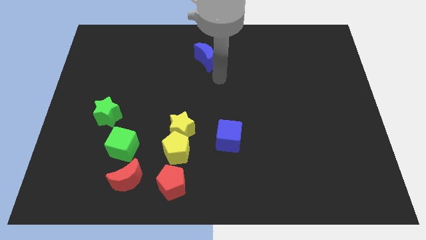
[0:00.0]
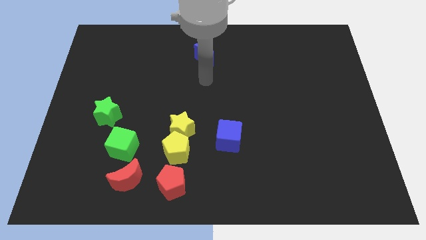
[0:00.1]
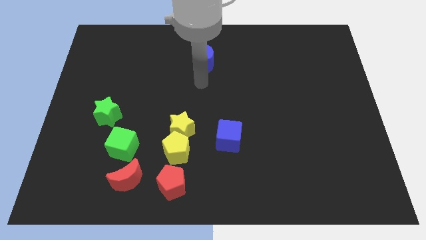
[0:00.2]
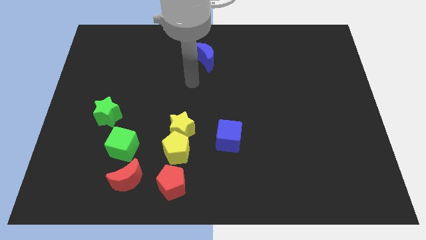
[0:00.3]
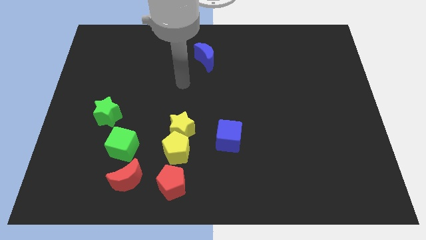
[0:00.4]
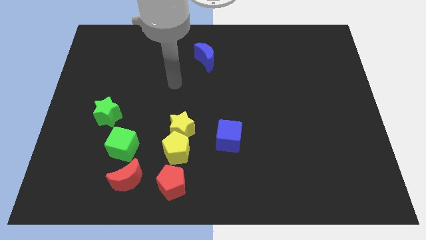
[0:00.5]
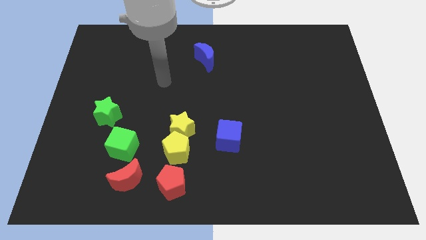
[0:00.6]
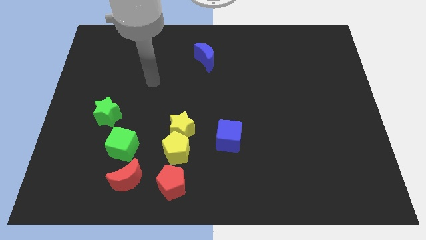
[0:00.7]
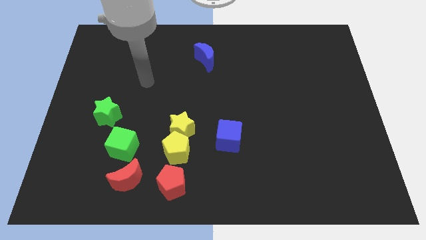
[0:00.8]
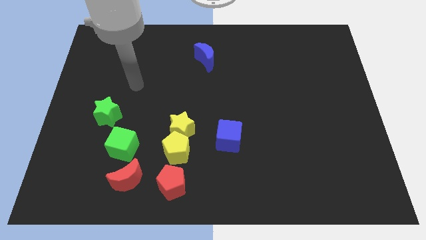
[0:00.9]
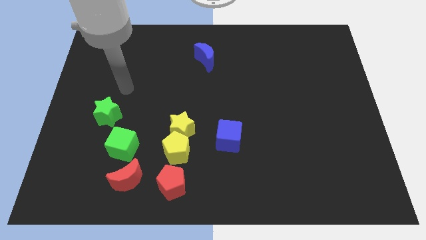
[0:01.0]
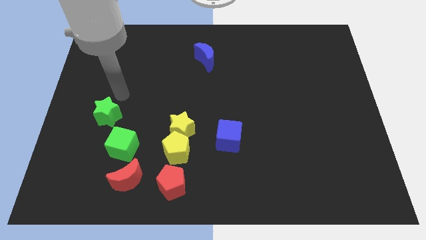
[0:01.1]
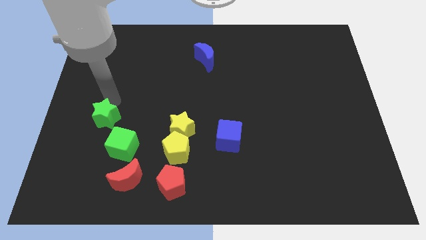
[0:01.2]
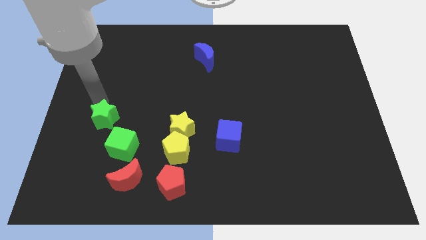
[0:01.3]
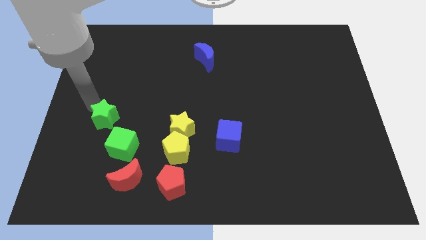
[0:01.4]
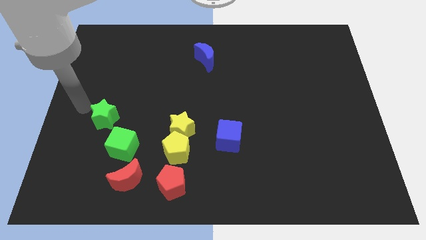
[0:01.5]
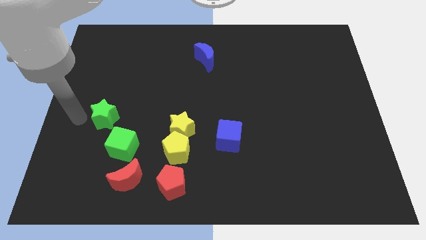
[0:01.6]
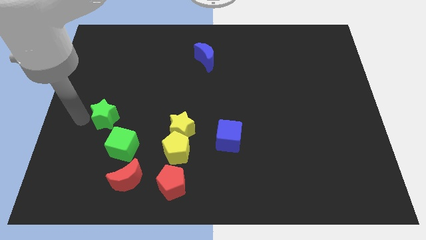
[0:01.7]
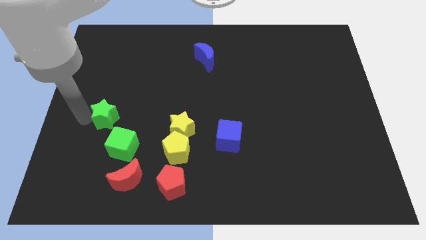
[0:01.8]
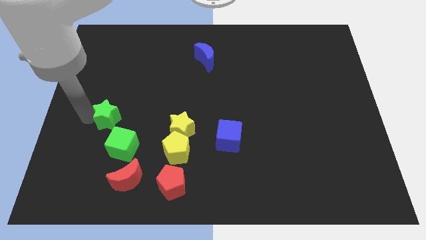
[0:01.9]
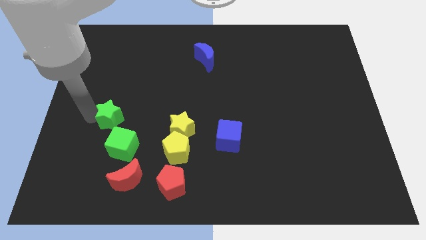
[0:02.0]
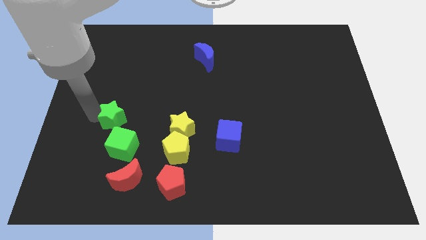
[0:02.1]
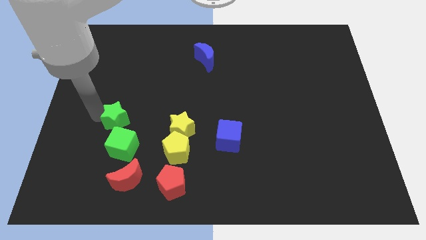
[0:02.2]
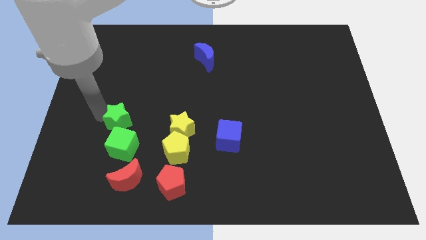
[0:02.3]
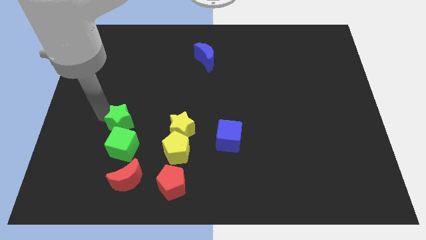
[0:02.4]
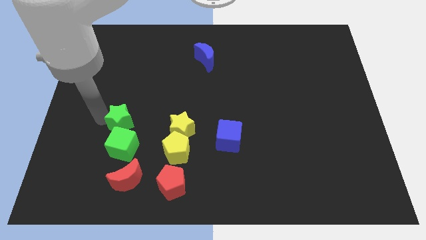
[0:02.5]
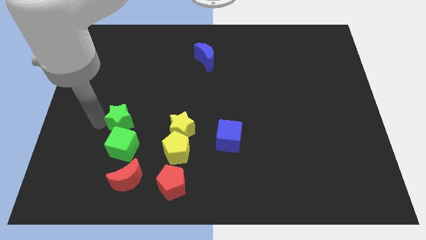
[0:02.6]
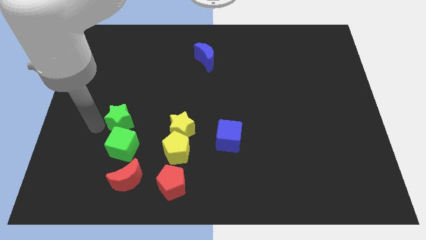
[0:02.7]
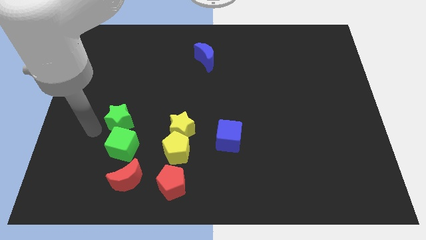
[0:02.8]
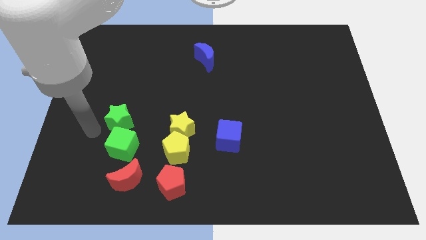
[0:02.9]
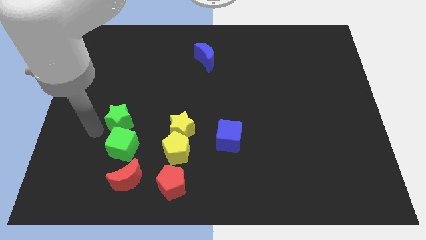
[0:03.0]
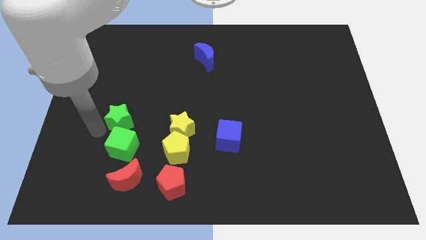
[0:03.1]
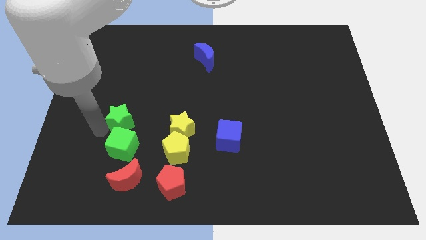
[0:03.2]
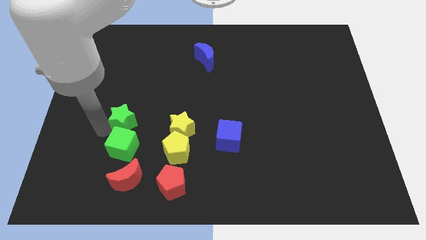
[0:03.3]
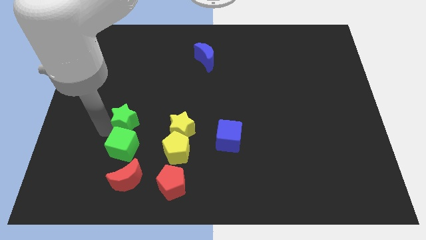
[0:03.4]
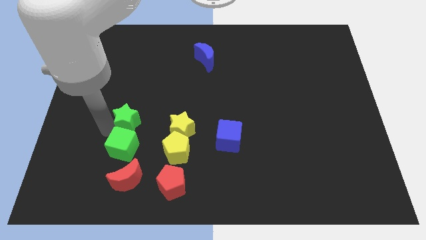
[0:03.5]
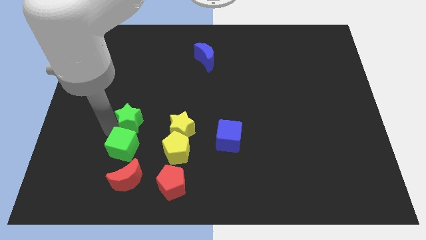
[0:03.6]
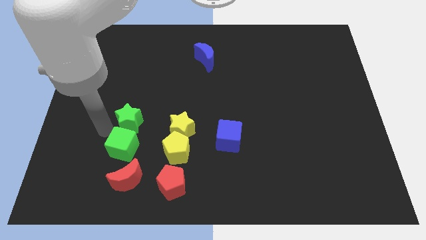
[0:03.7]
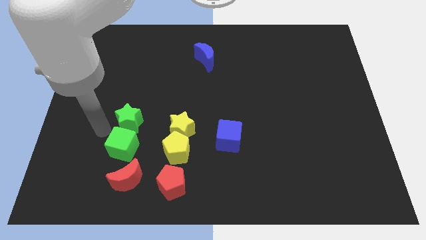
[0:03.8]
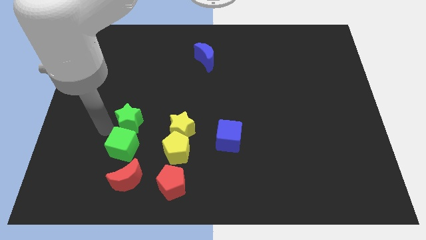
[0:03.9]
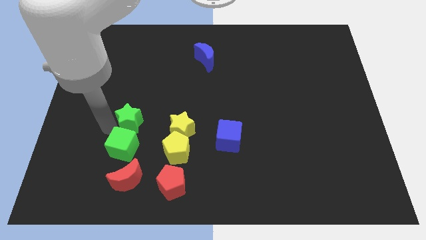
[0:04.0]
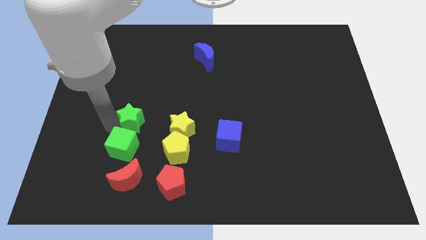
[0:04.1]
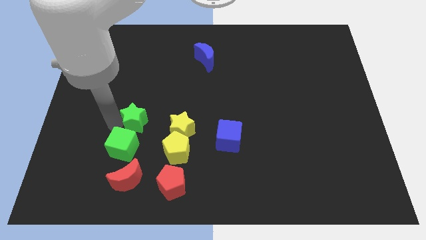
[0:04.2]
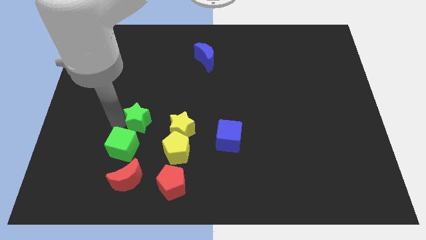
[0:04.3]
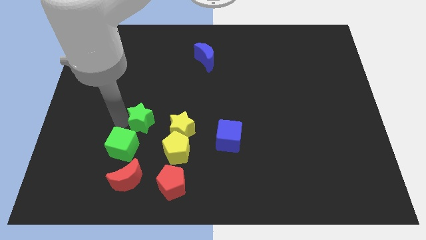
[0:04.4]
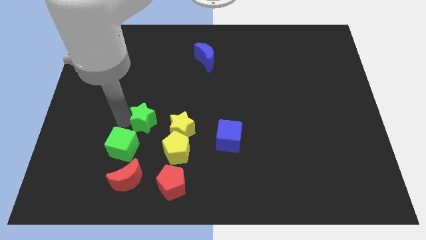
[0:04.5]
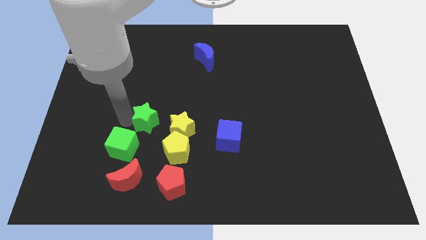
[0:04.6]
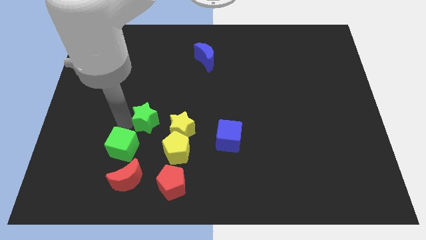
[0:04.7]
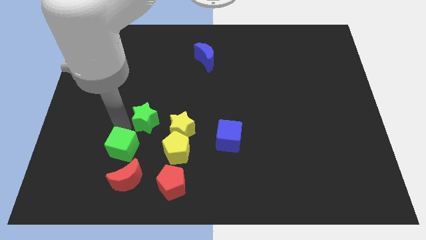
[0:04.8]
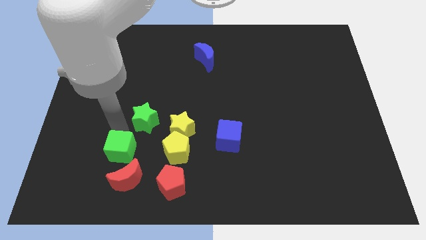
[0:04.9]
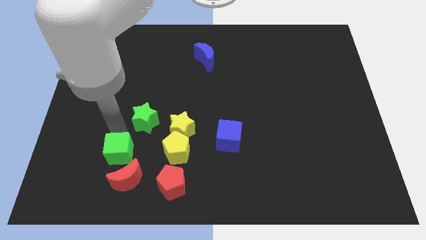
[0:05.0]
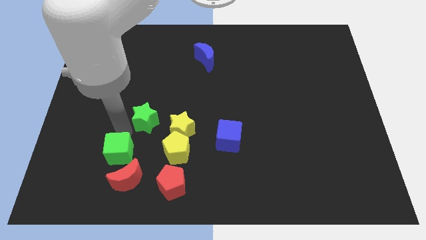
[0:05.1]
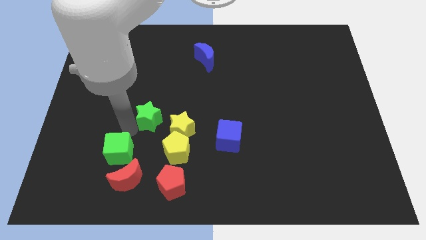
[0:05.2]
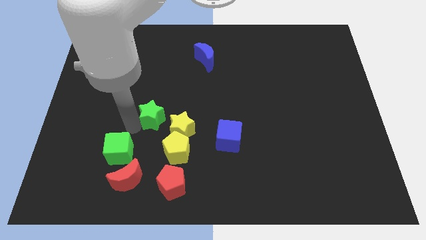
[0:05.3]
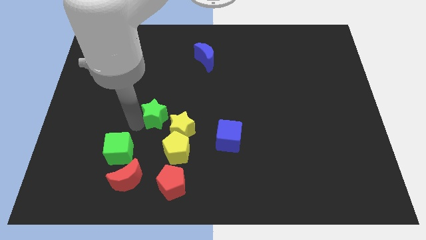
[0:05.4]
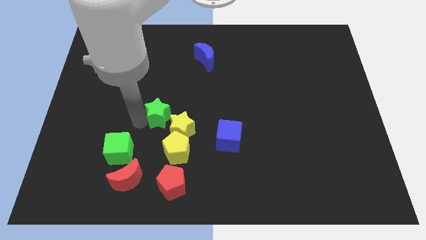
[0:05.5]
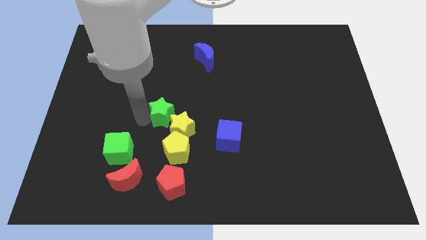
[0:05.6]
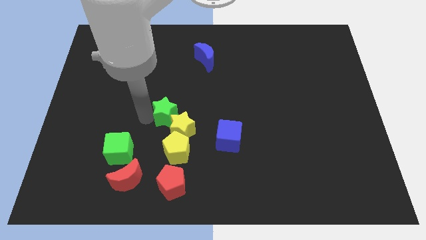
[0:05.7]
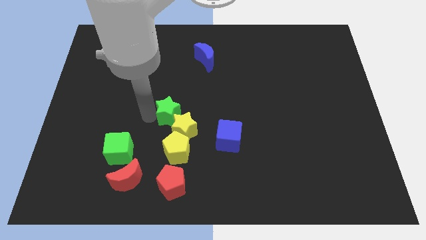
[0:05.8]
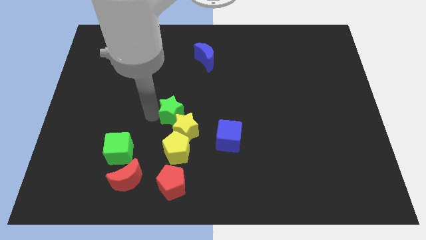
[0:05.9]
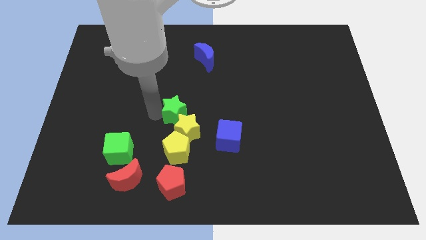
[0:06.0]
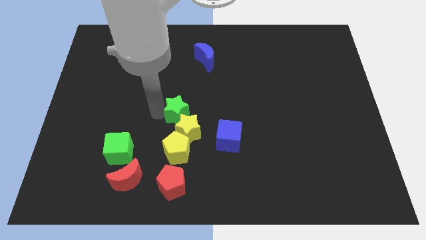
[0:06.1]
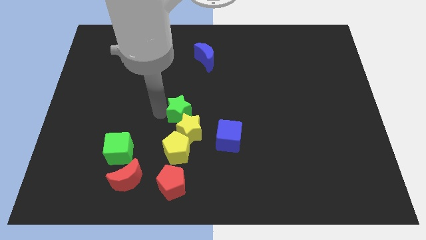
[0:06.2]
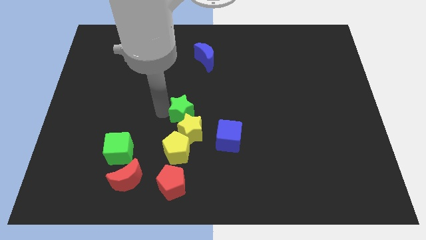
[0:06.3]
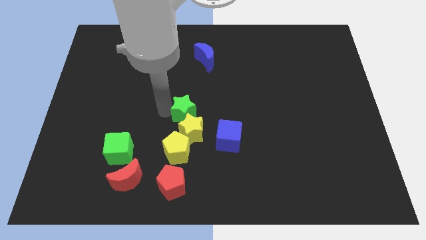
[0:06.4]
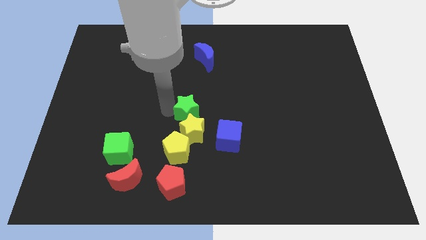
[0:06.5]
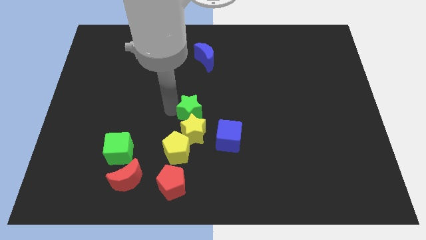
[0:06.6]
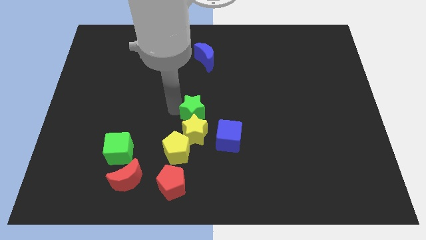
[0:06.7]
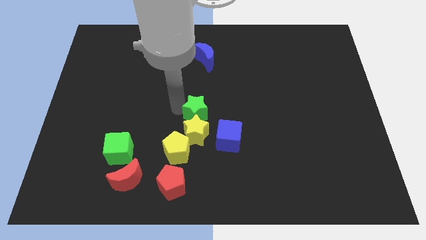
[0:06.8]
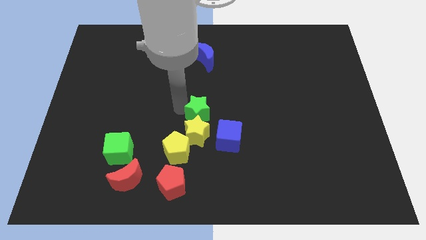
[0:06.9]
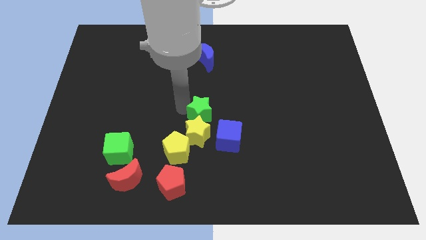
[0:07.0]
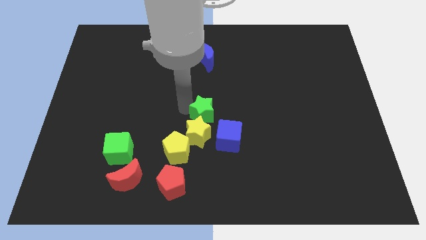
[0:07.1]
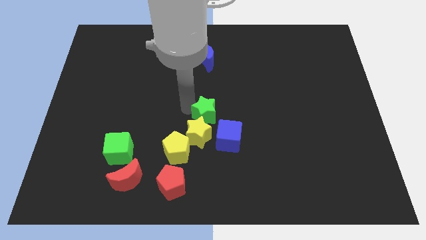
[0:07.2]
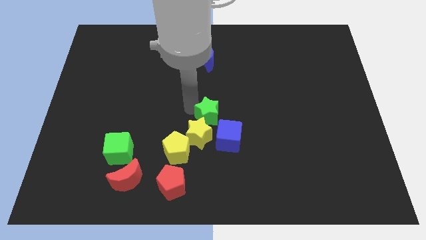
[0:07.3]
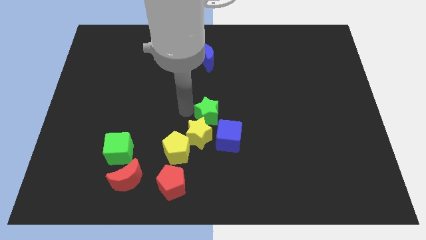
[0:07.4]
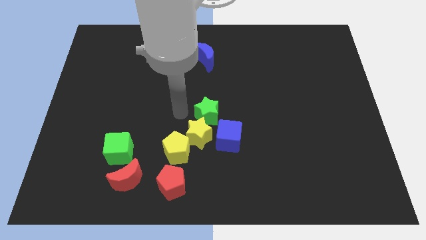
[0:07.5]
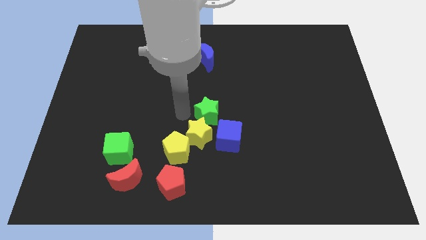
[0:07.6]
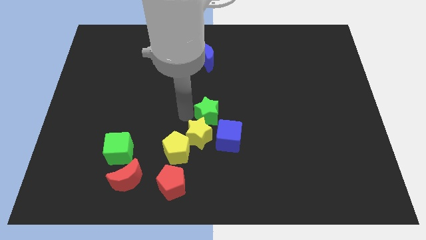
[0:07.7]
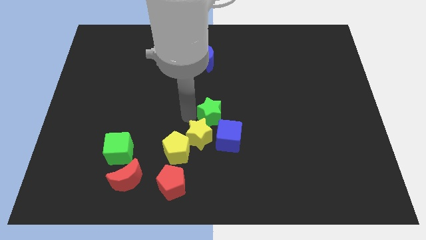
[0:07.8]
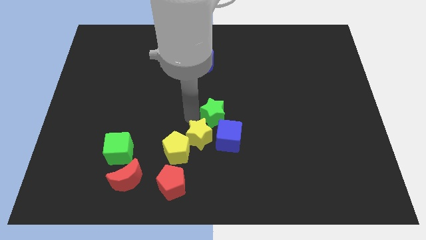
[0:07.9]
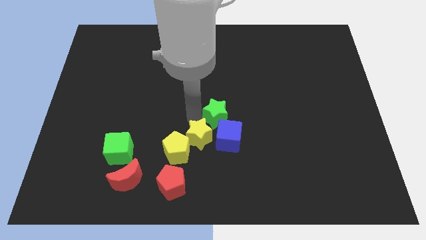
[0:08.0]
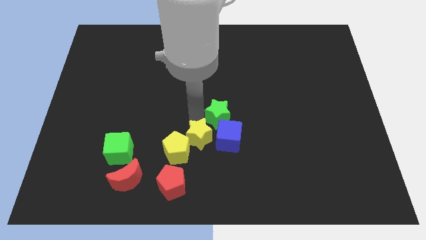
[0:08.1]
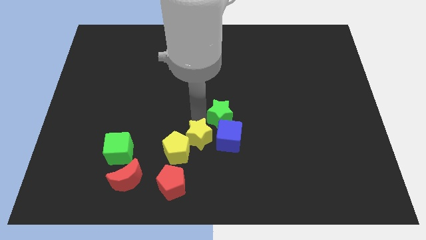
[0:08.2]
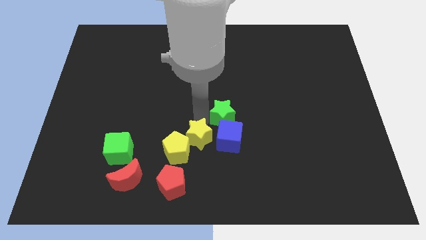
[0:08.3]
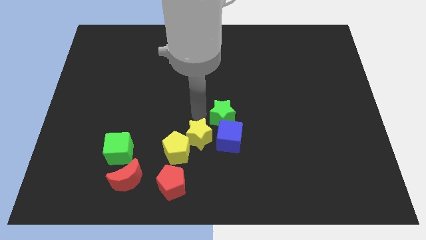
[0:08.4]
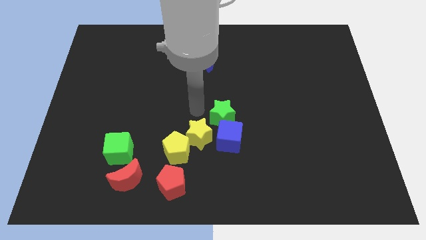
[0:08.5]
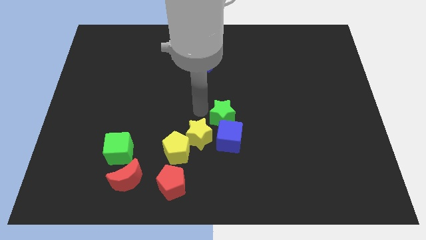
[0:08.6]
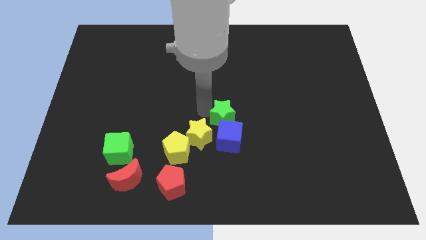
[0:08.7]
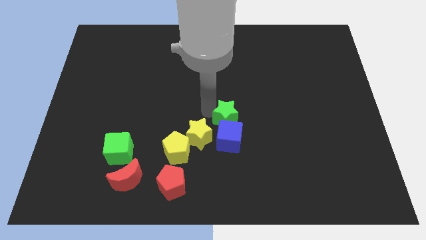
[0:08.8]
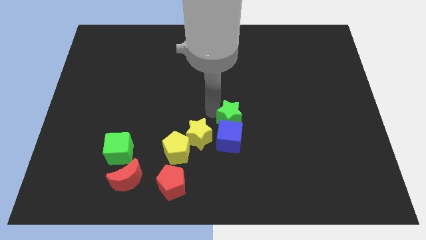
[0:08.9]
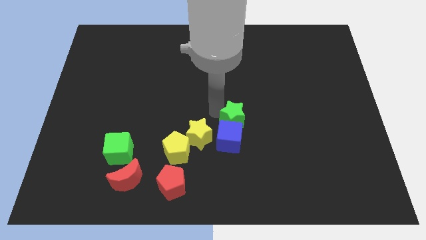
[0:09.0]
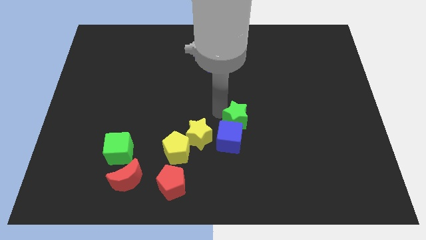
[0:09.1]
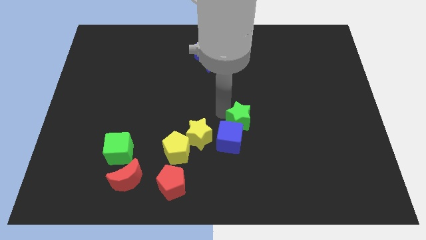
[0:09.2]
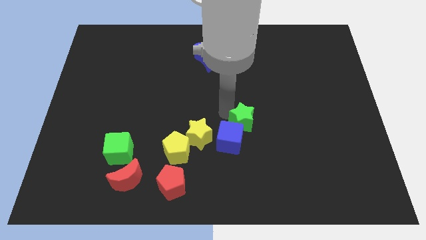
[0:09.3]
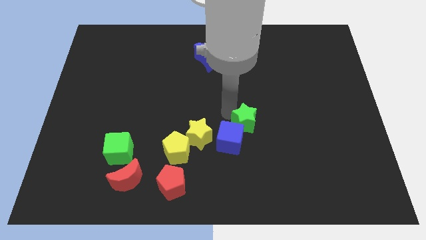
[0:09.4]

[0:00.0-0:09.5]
slide the green star to the right of the blue cube
